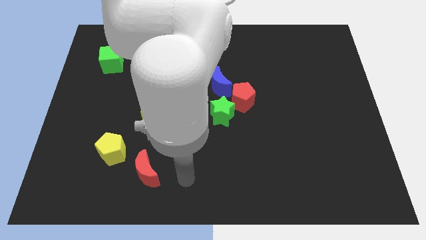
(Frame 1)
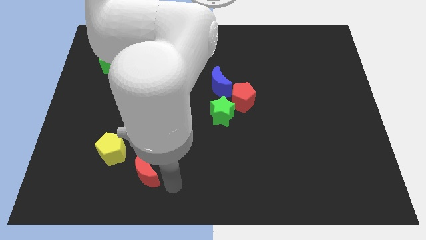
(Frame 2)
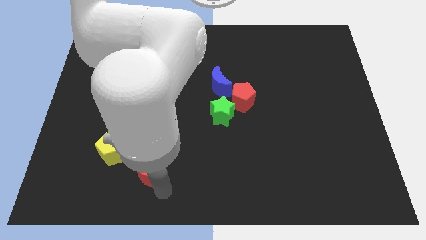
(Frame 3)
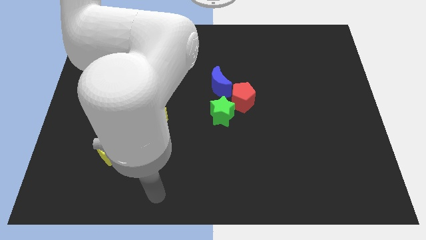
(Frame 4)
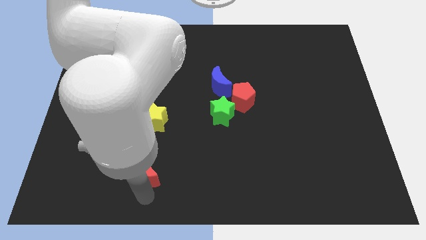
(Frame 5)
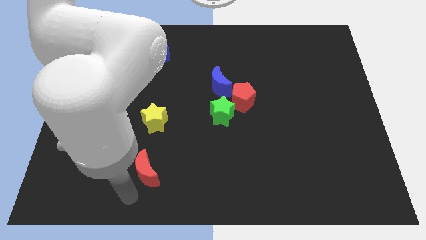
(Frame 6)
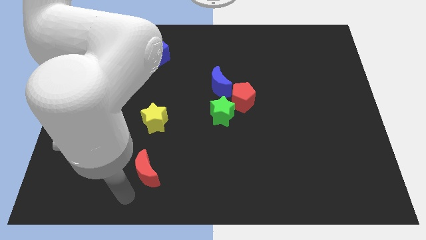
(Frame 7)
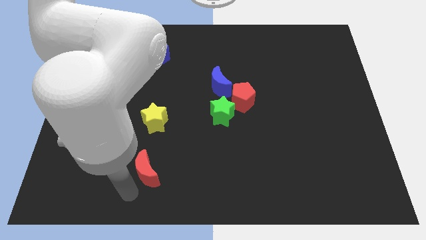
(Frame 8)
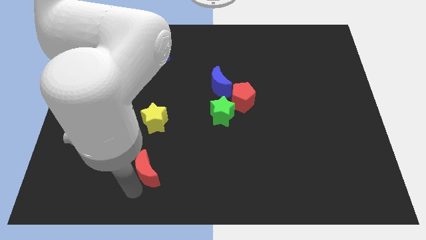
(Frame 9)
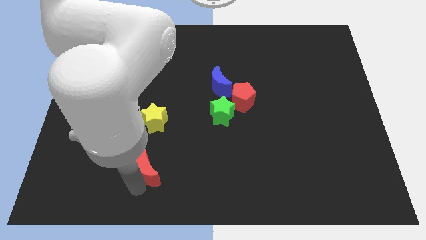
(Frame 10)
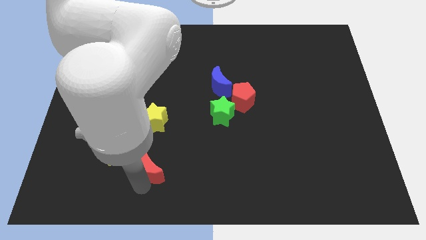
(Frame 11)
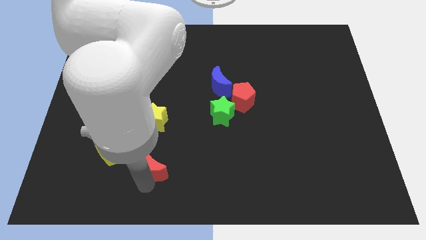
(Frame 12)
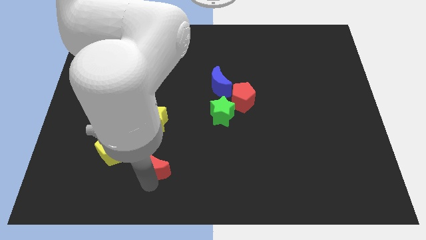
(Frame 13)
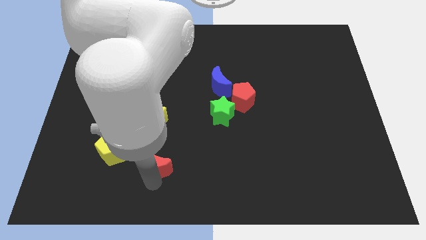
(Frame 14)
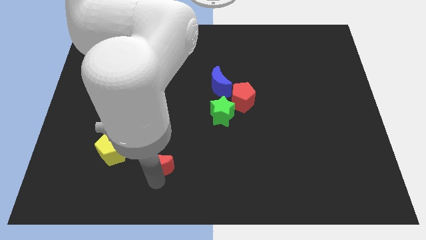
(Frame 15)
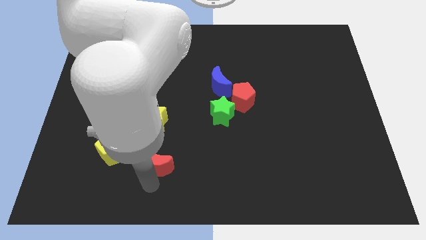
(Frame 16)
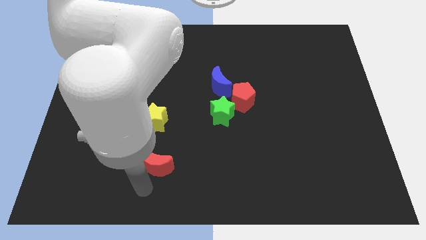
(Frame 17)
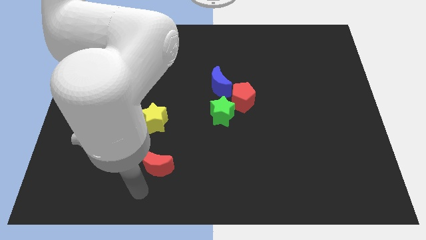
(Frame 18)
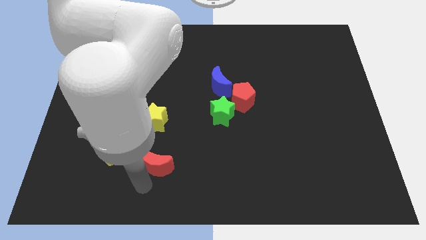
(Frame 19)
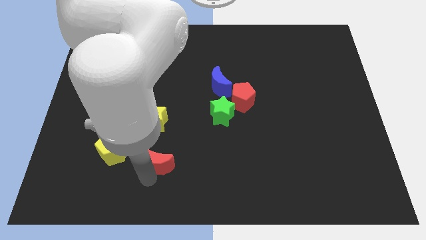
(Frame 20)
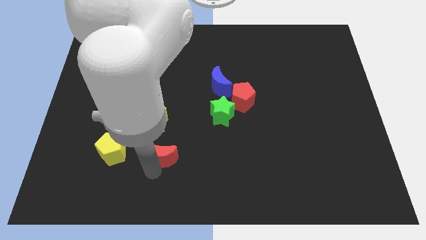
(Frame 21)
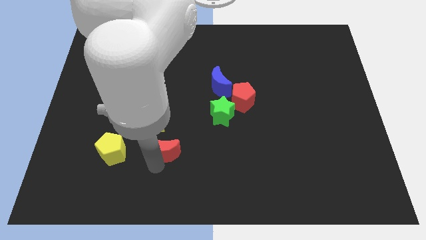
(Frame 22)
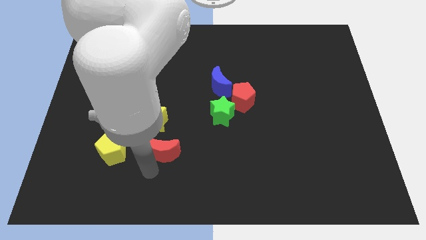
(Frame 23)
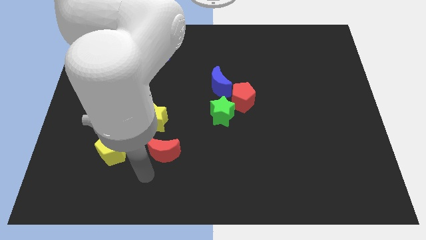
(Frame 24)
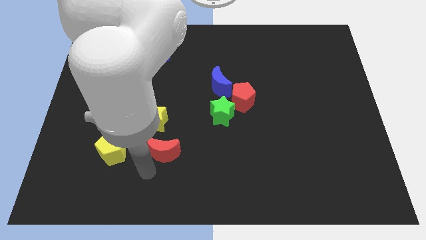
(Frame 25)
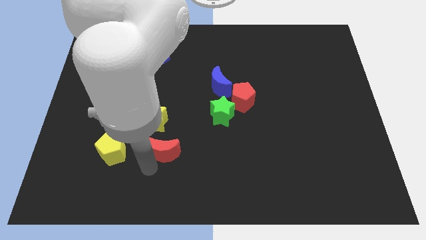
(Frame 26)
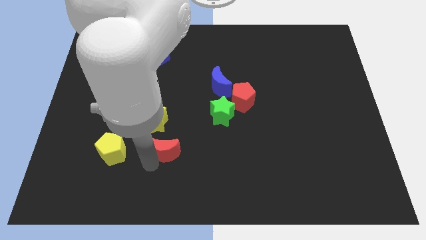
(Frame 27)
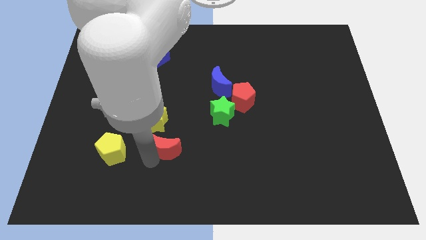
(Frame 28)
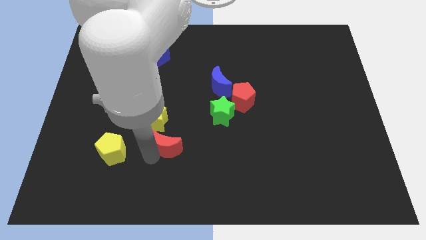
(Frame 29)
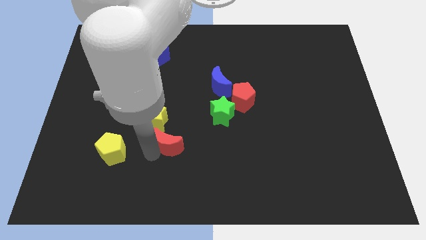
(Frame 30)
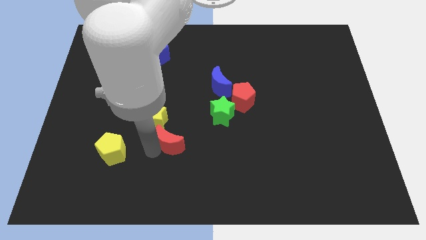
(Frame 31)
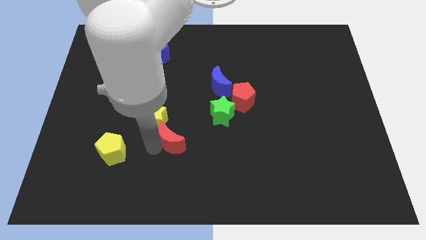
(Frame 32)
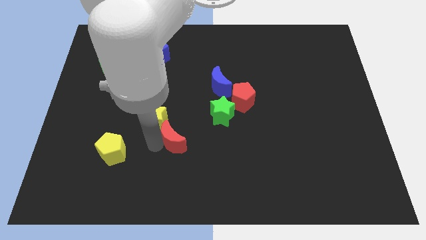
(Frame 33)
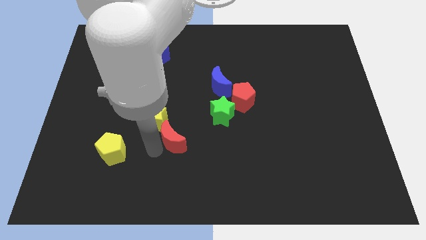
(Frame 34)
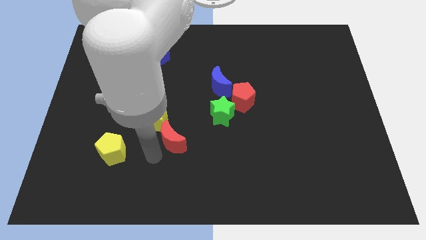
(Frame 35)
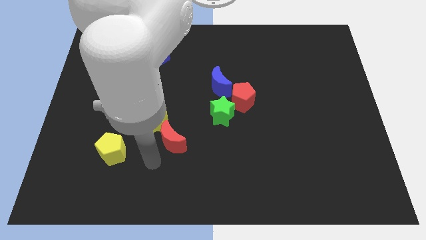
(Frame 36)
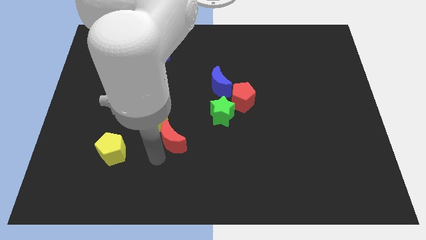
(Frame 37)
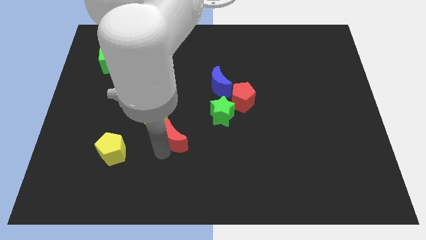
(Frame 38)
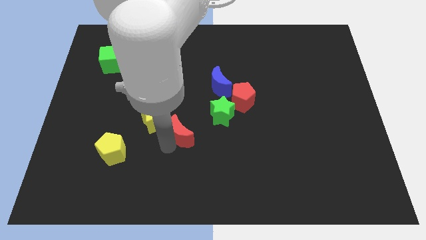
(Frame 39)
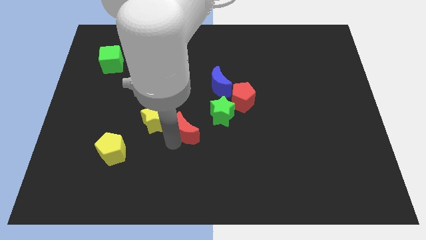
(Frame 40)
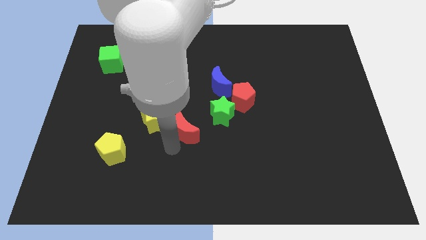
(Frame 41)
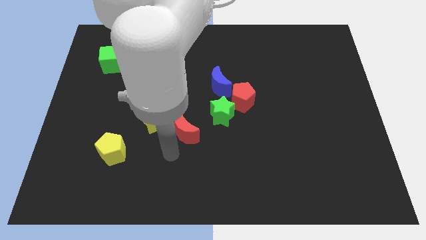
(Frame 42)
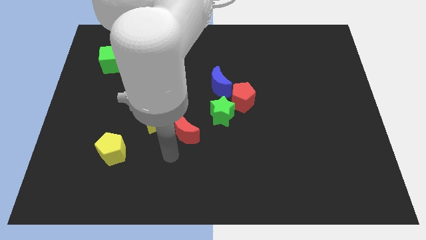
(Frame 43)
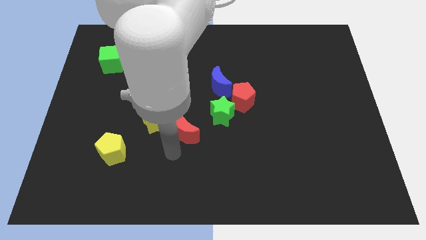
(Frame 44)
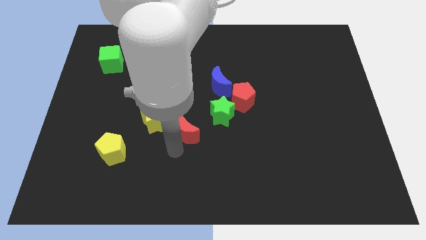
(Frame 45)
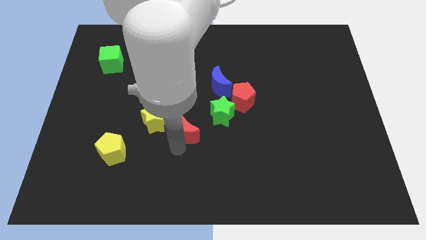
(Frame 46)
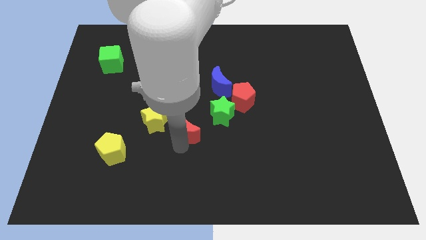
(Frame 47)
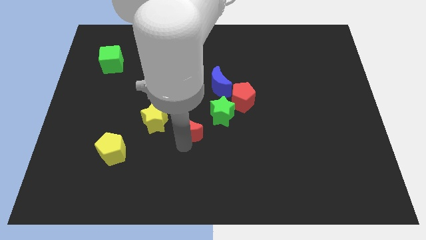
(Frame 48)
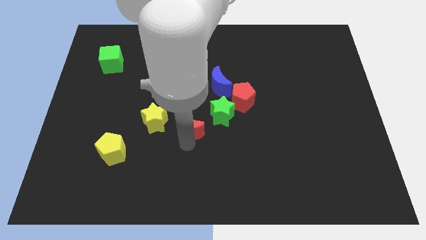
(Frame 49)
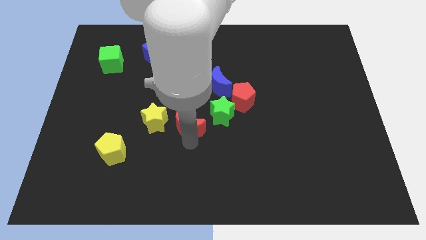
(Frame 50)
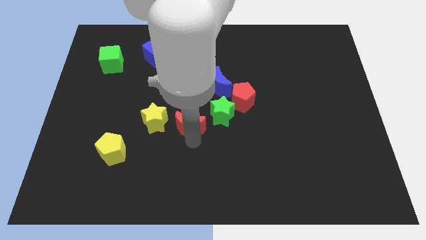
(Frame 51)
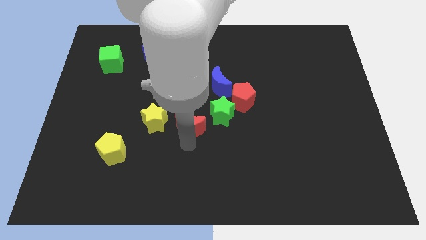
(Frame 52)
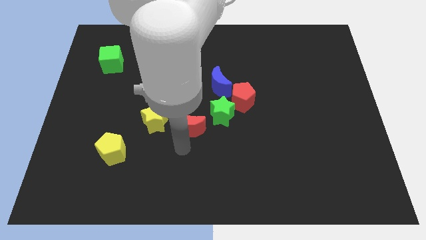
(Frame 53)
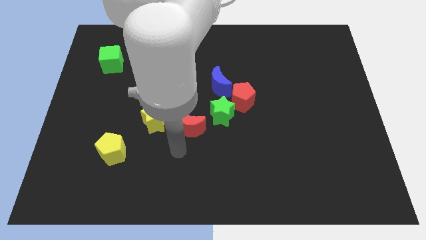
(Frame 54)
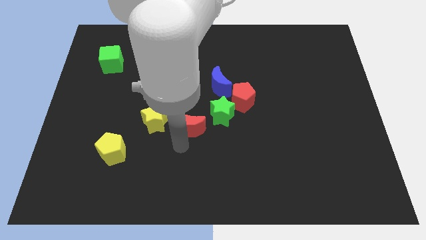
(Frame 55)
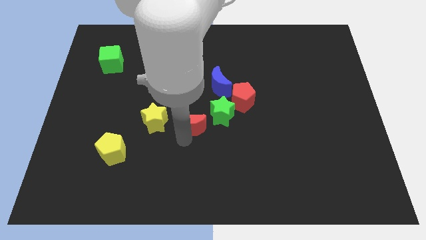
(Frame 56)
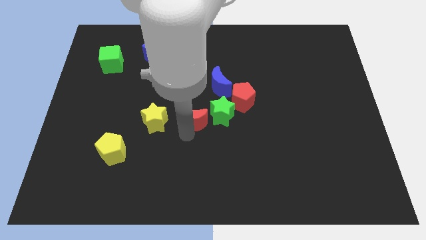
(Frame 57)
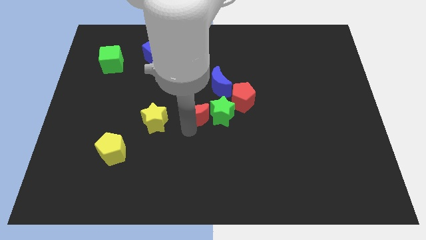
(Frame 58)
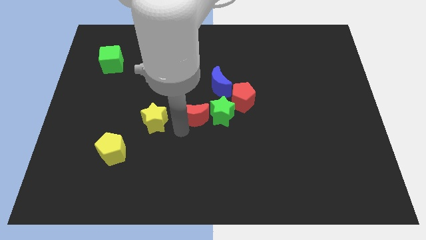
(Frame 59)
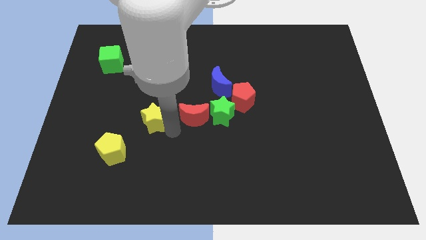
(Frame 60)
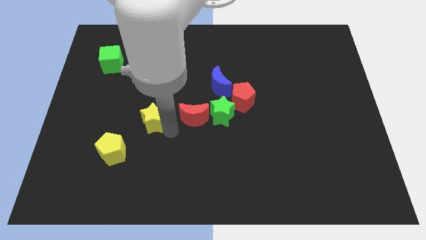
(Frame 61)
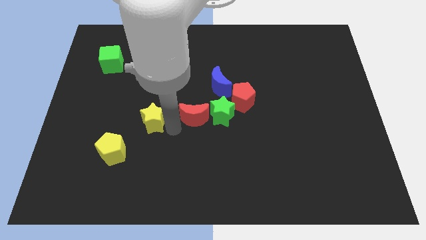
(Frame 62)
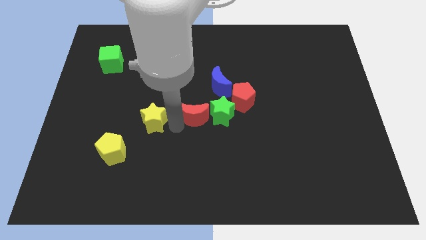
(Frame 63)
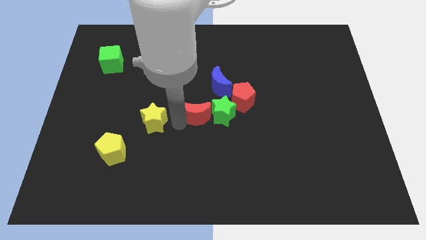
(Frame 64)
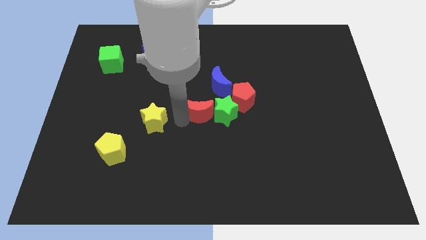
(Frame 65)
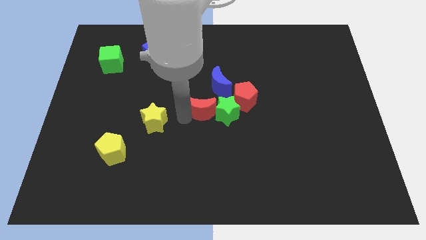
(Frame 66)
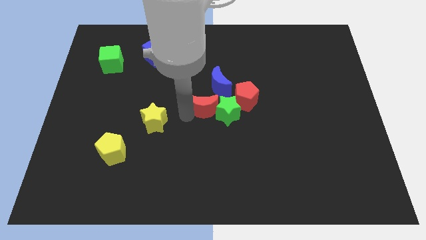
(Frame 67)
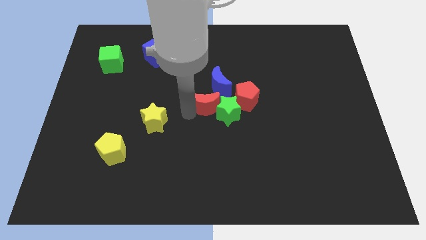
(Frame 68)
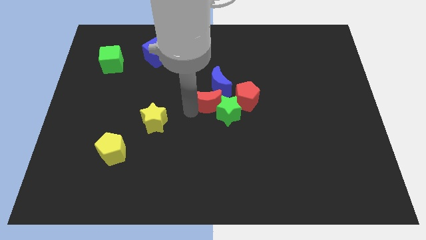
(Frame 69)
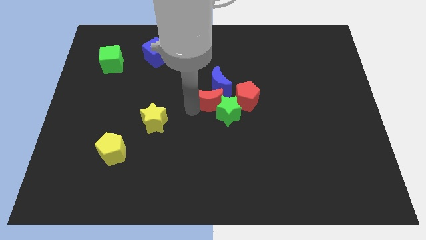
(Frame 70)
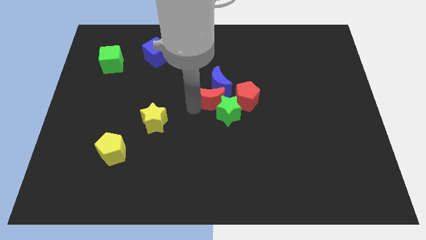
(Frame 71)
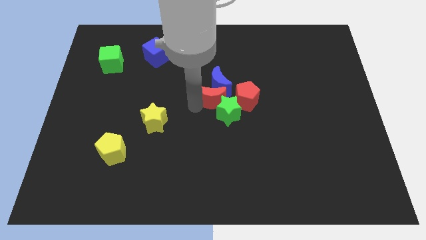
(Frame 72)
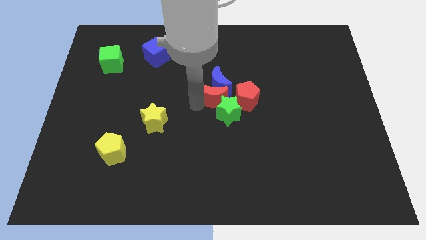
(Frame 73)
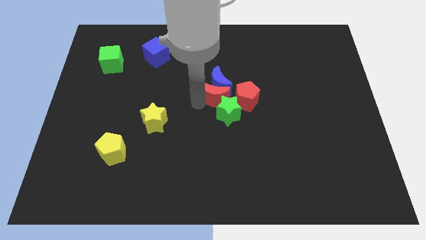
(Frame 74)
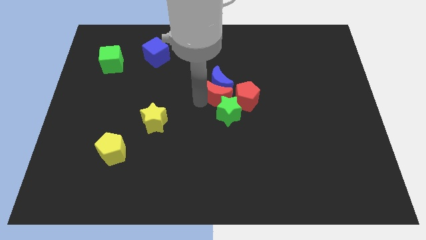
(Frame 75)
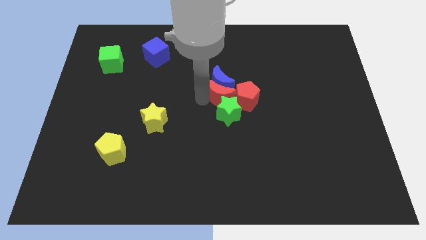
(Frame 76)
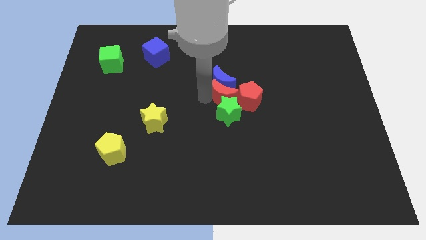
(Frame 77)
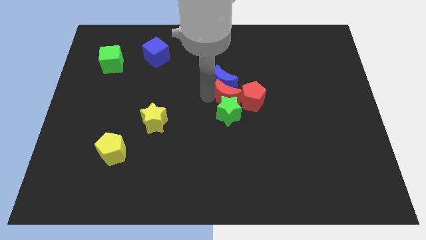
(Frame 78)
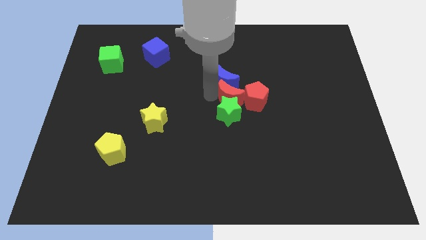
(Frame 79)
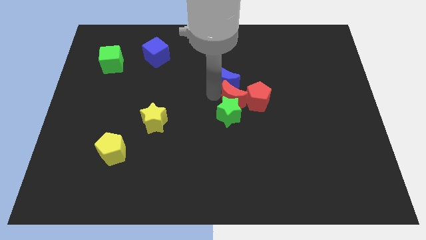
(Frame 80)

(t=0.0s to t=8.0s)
push the red moon next to the red pentagon
